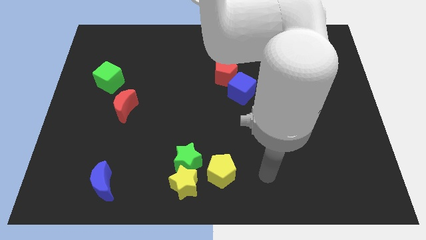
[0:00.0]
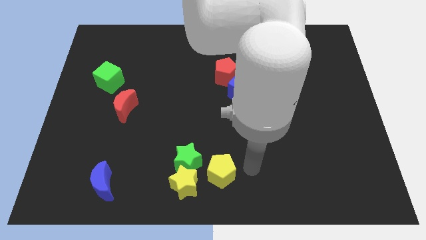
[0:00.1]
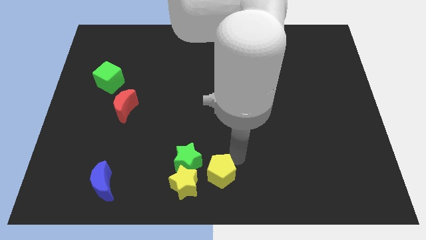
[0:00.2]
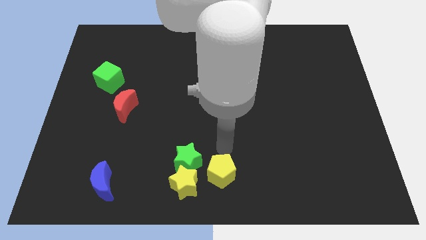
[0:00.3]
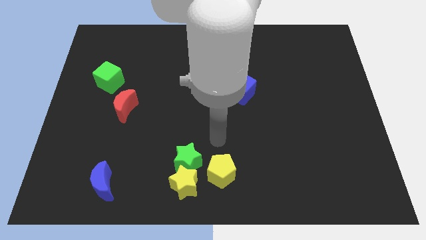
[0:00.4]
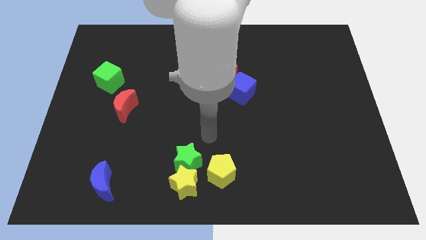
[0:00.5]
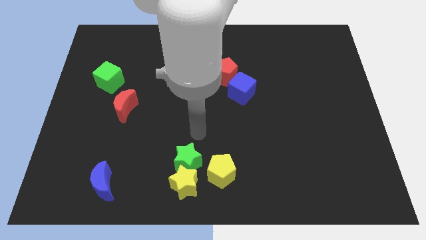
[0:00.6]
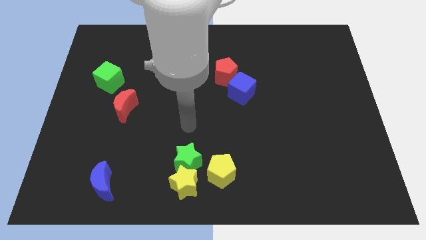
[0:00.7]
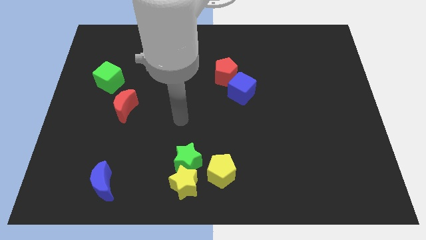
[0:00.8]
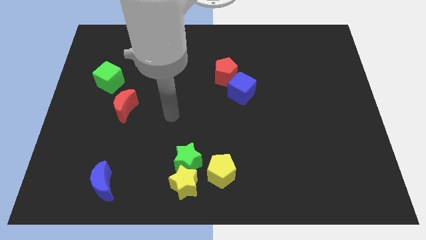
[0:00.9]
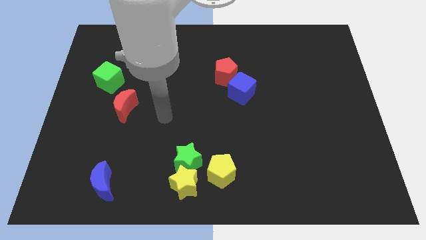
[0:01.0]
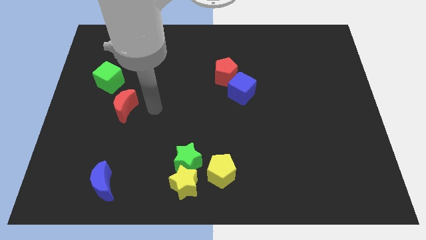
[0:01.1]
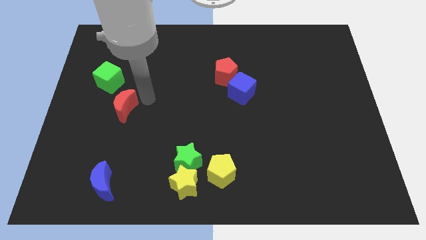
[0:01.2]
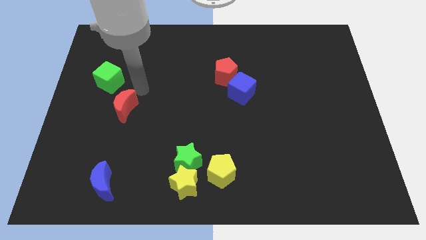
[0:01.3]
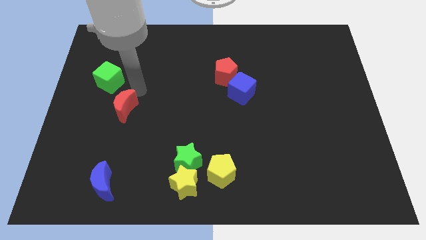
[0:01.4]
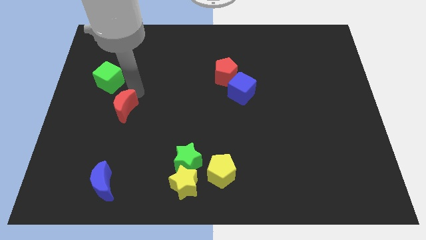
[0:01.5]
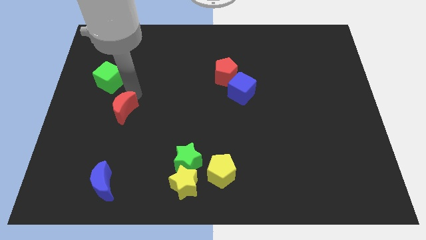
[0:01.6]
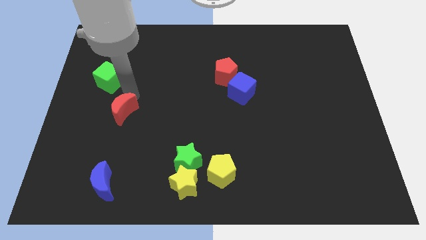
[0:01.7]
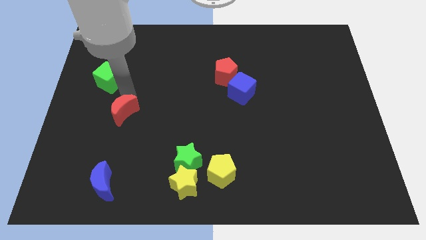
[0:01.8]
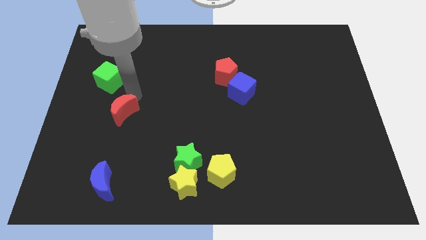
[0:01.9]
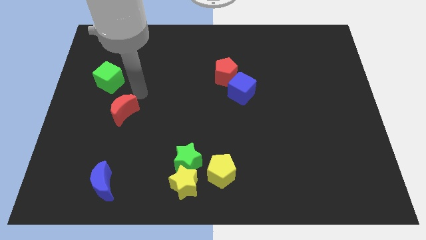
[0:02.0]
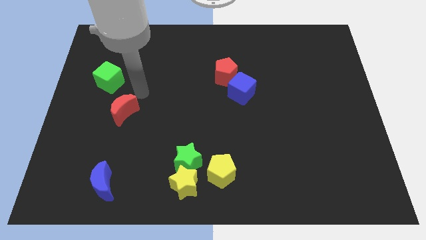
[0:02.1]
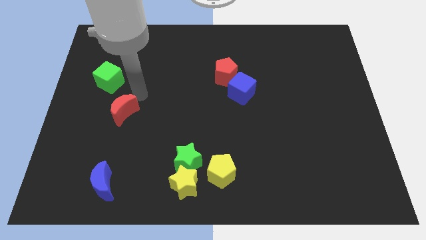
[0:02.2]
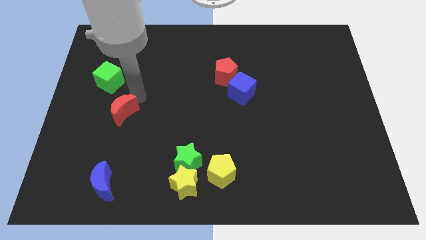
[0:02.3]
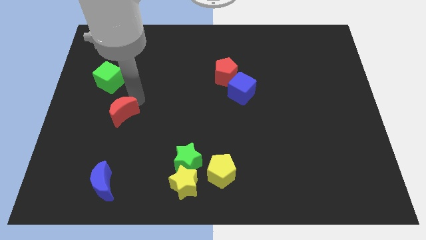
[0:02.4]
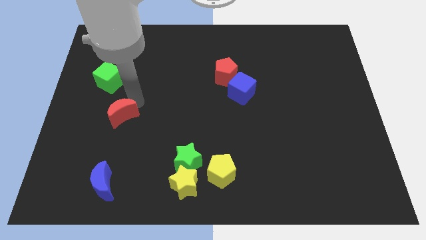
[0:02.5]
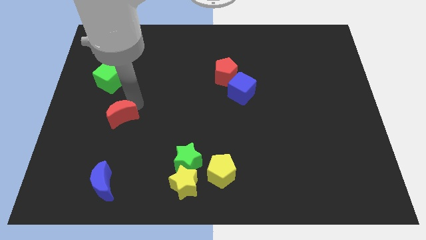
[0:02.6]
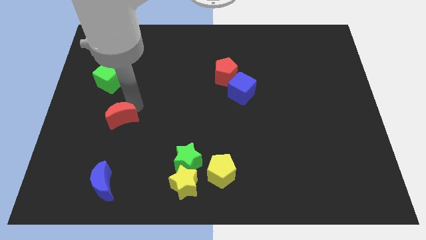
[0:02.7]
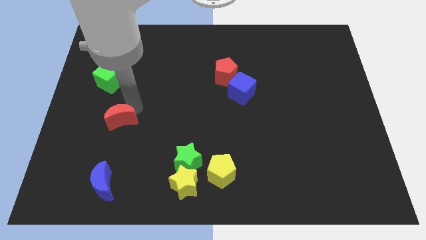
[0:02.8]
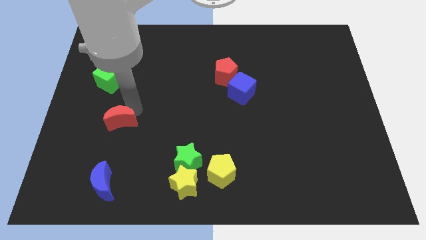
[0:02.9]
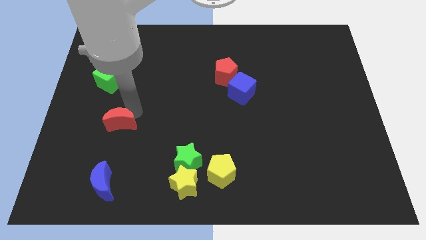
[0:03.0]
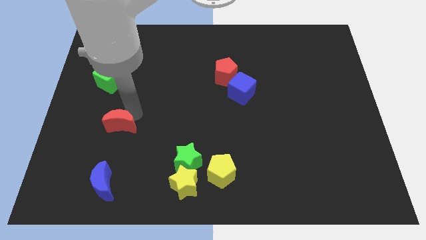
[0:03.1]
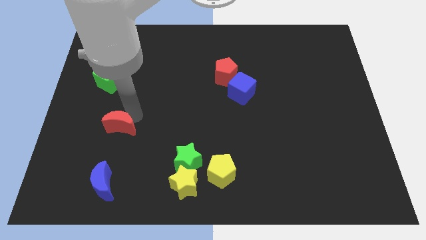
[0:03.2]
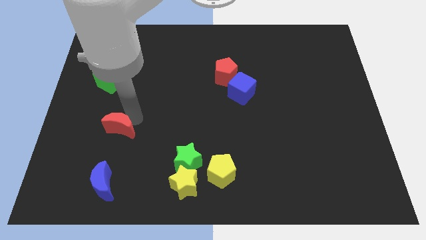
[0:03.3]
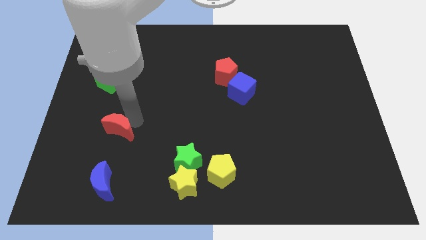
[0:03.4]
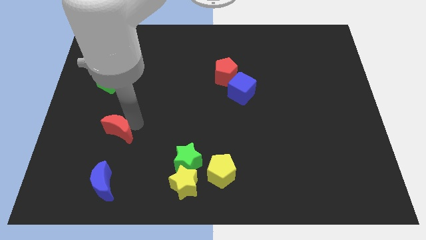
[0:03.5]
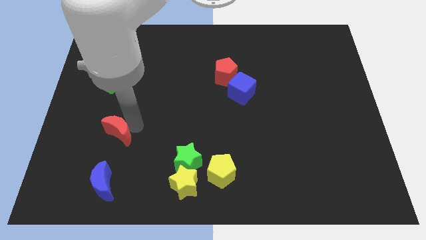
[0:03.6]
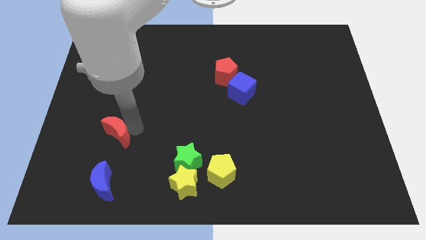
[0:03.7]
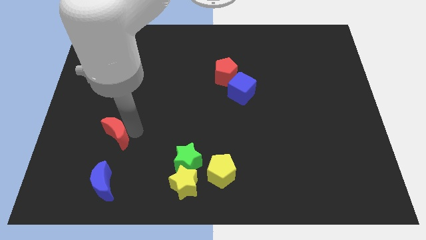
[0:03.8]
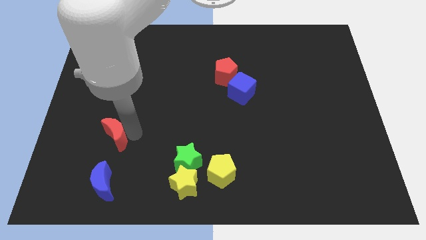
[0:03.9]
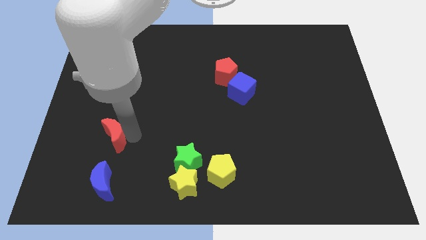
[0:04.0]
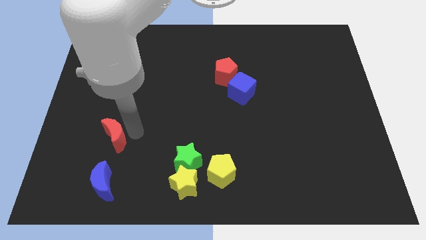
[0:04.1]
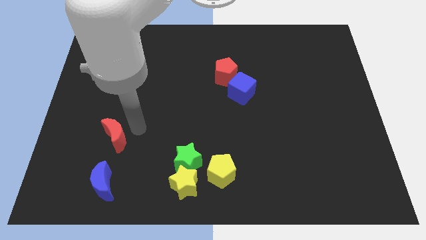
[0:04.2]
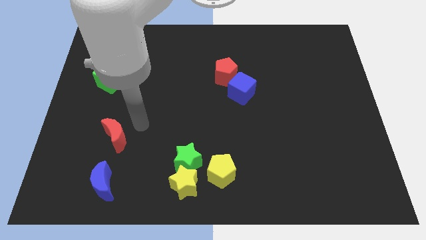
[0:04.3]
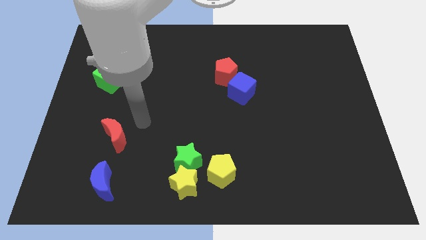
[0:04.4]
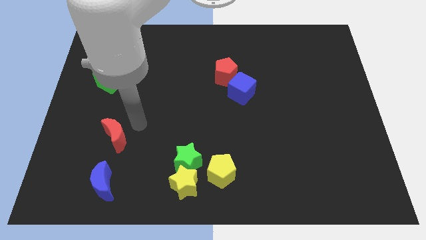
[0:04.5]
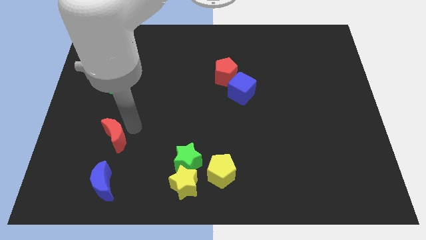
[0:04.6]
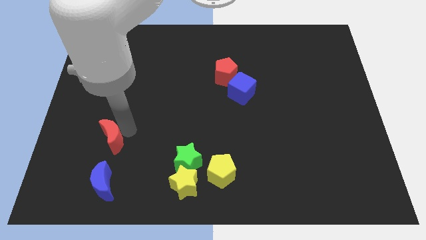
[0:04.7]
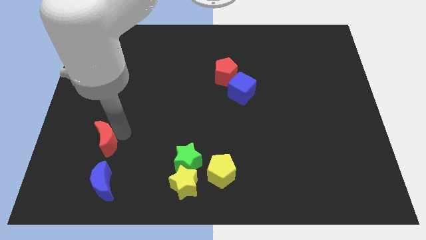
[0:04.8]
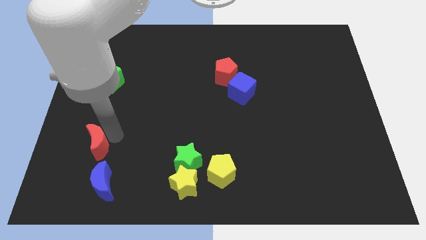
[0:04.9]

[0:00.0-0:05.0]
move the red moon to the top left of the blue moon

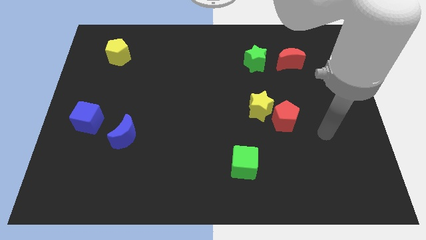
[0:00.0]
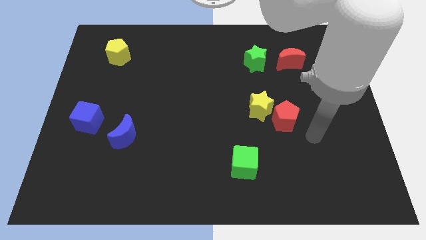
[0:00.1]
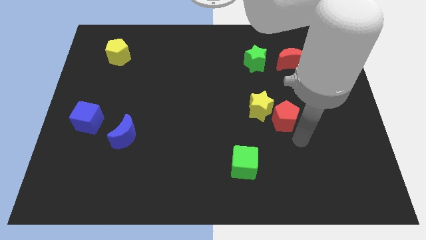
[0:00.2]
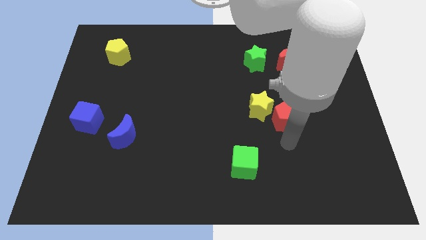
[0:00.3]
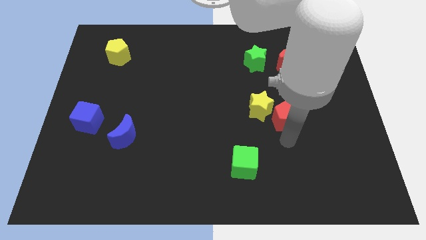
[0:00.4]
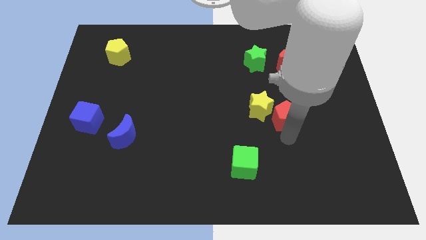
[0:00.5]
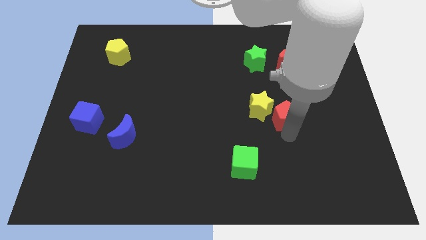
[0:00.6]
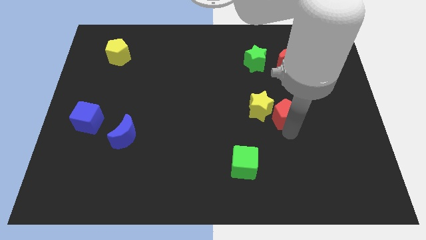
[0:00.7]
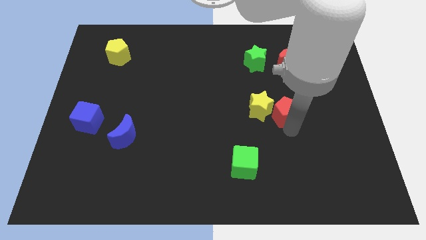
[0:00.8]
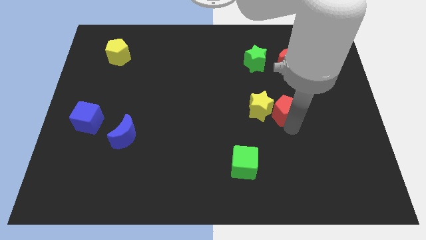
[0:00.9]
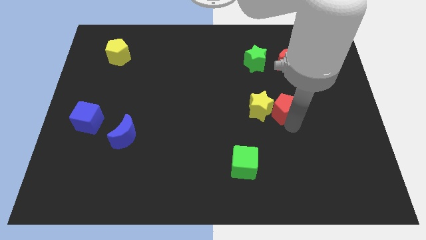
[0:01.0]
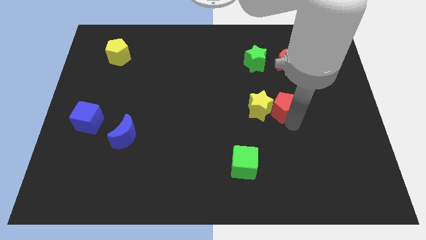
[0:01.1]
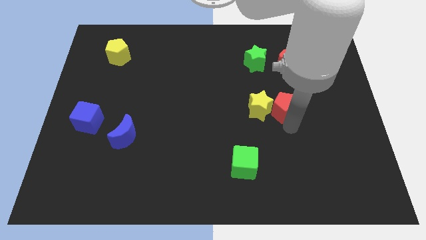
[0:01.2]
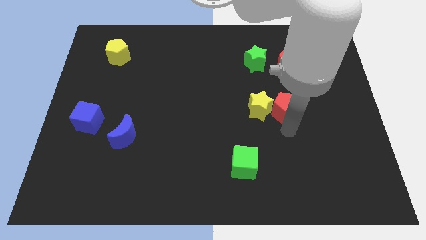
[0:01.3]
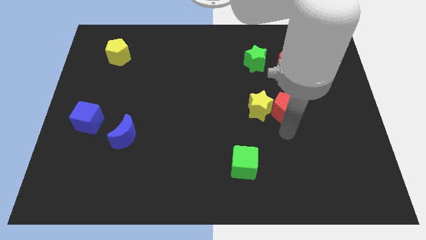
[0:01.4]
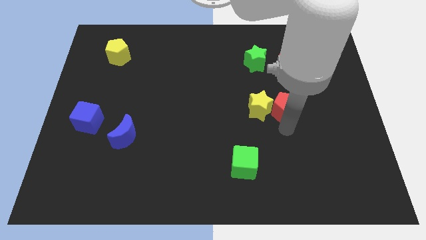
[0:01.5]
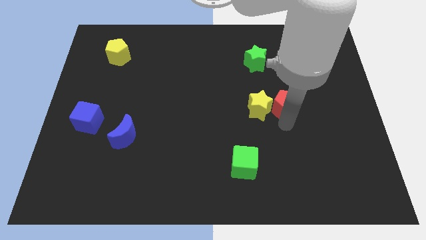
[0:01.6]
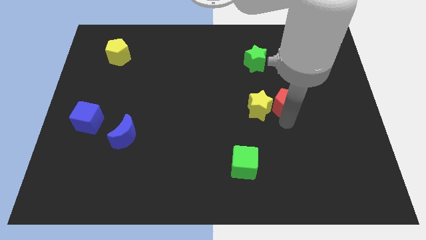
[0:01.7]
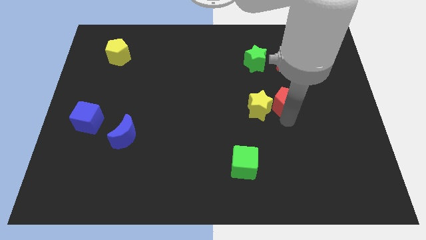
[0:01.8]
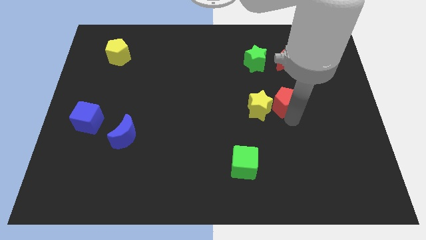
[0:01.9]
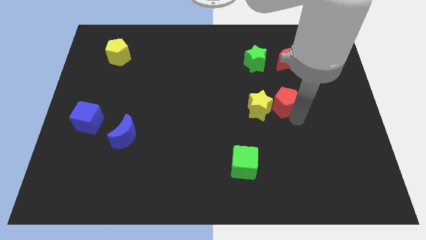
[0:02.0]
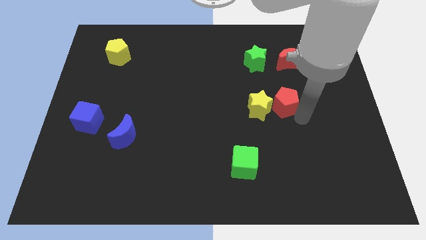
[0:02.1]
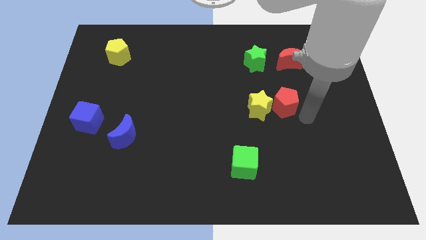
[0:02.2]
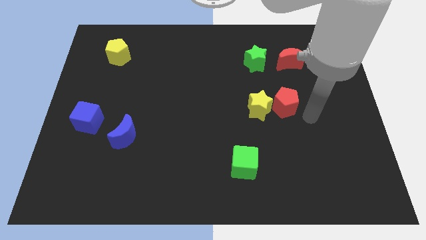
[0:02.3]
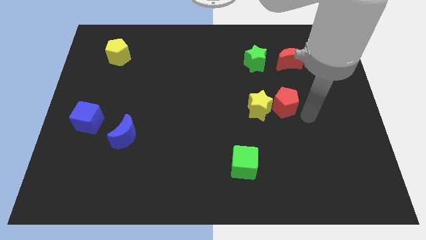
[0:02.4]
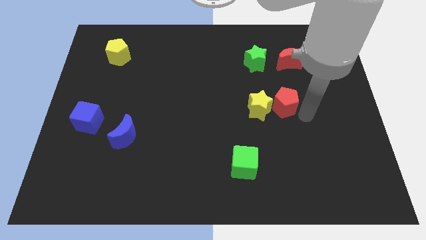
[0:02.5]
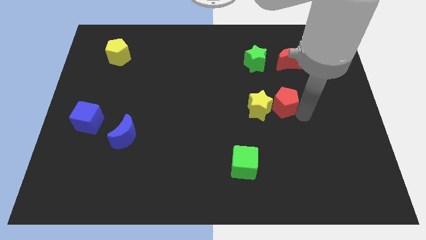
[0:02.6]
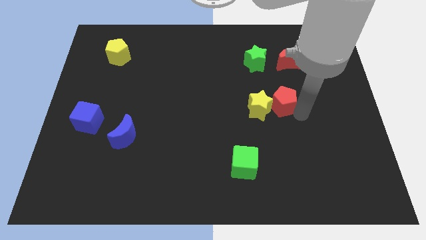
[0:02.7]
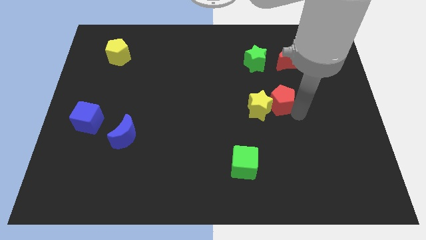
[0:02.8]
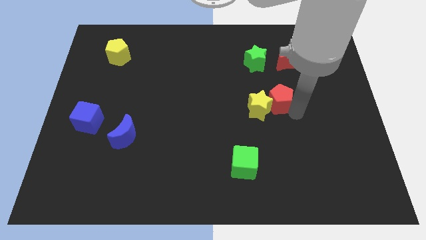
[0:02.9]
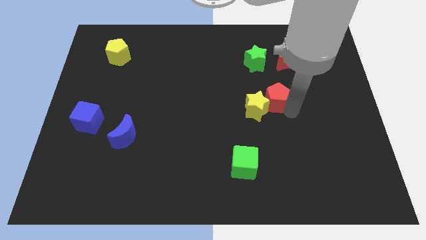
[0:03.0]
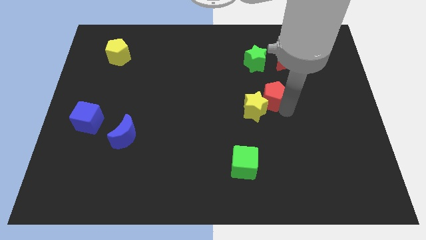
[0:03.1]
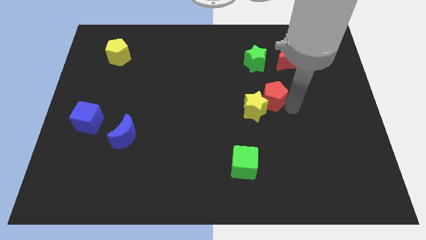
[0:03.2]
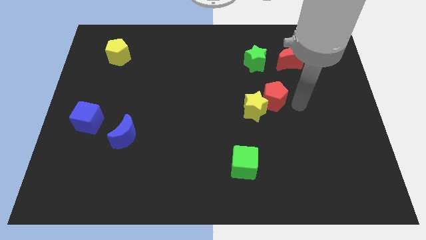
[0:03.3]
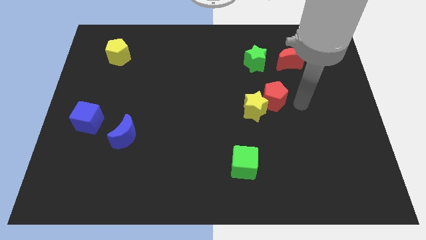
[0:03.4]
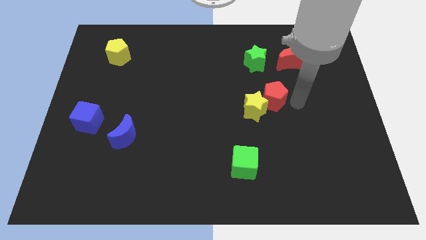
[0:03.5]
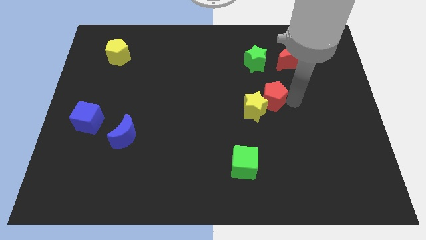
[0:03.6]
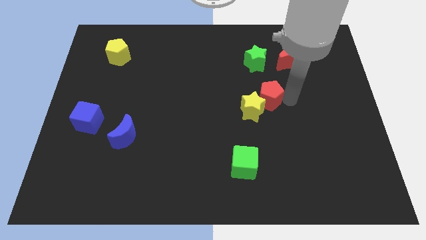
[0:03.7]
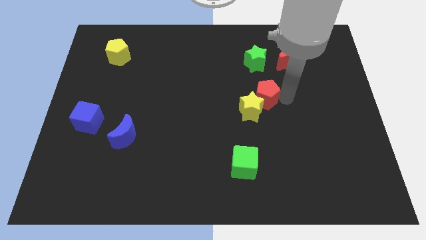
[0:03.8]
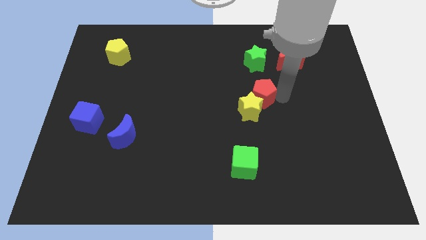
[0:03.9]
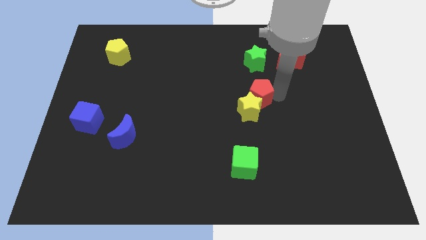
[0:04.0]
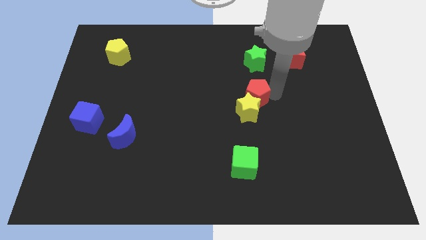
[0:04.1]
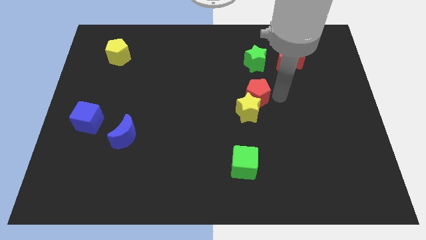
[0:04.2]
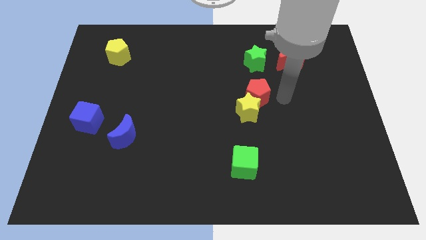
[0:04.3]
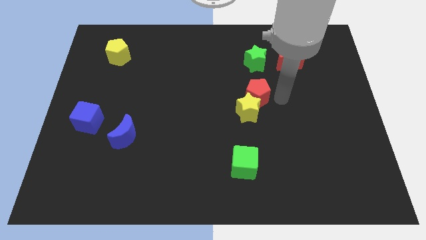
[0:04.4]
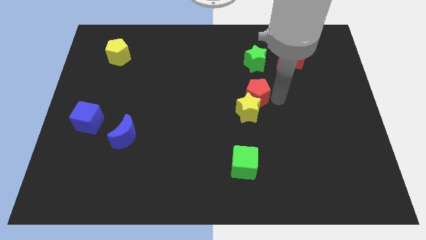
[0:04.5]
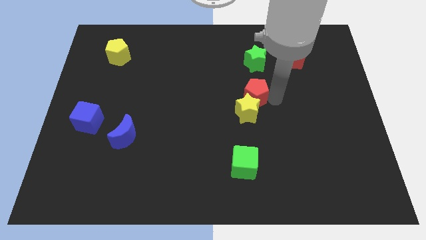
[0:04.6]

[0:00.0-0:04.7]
move the red pentagon to the top left side of the yellow star
